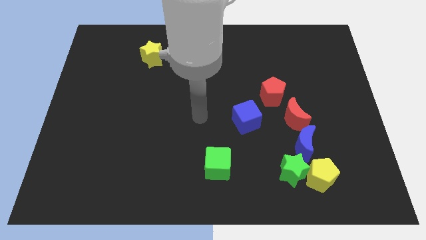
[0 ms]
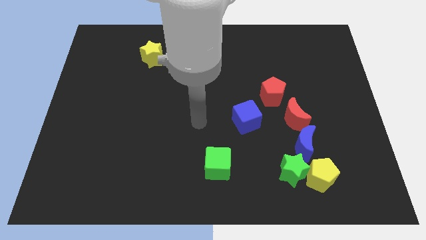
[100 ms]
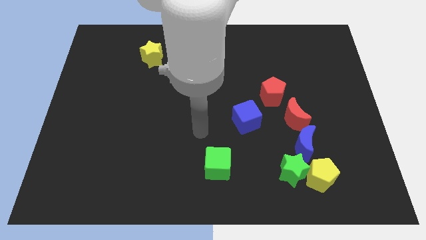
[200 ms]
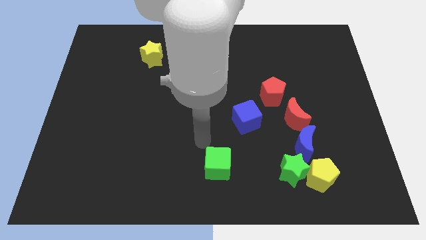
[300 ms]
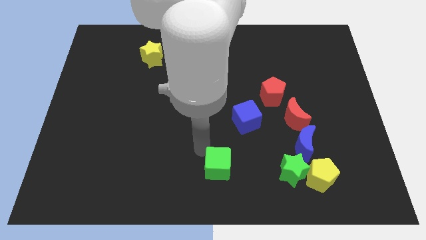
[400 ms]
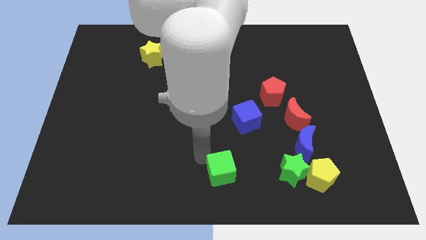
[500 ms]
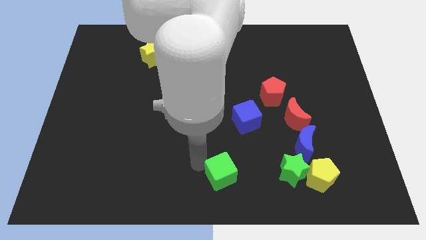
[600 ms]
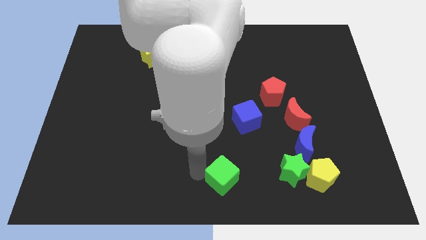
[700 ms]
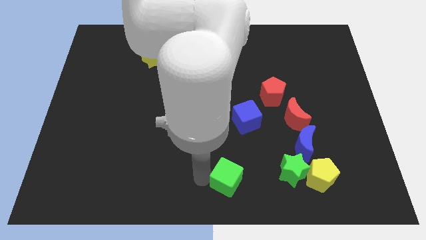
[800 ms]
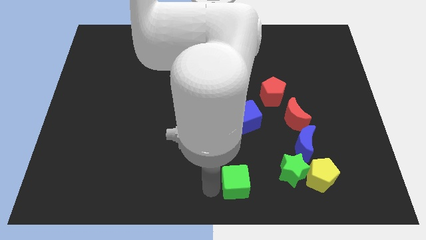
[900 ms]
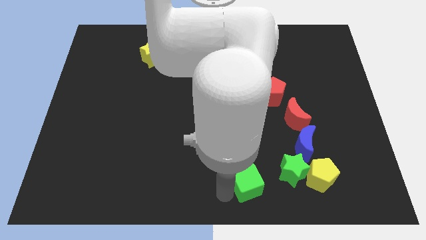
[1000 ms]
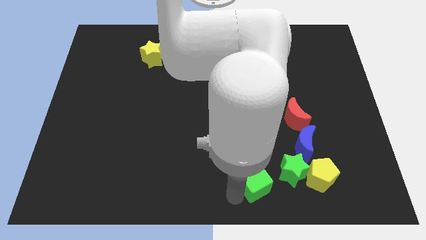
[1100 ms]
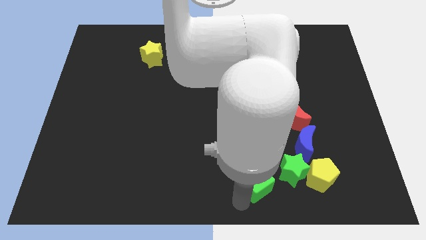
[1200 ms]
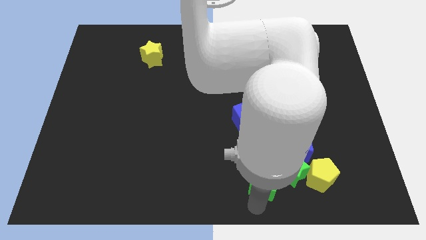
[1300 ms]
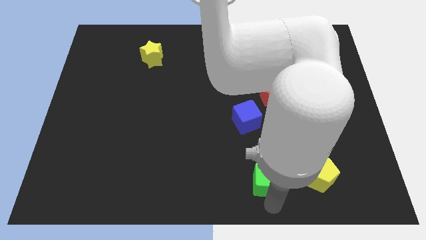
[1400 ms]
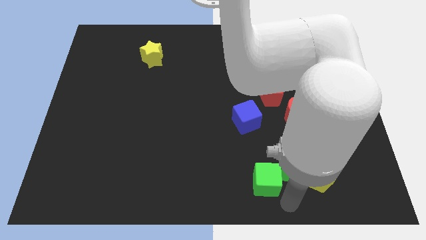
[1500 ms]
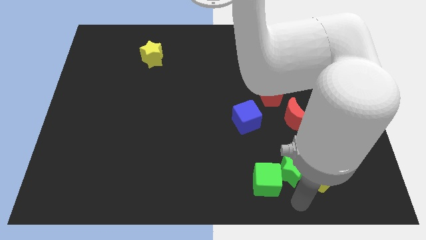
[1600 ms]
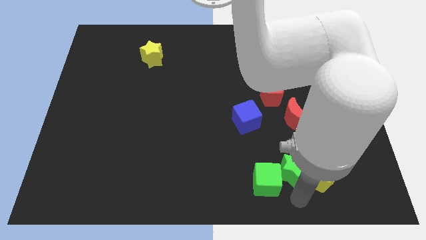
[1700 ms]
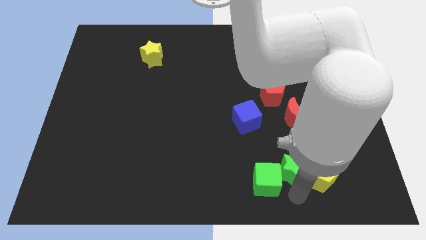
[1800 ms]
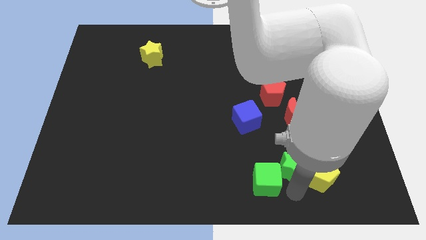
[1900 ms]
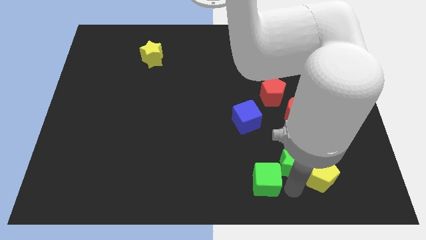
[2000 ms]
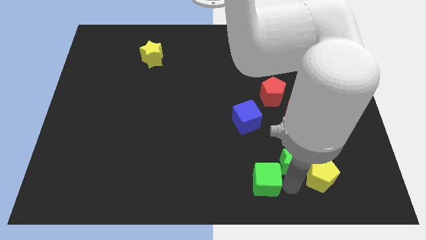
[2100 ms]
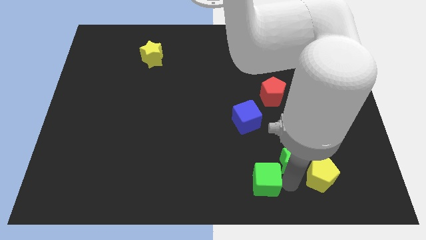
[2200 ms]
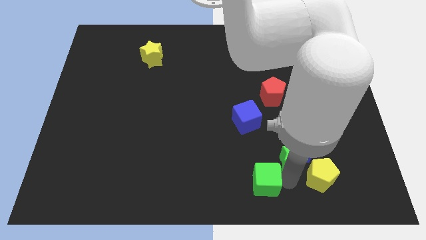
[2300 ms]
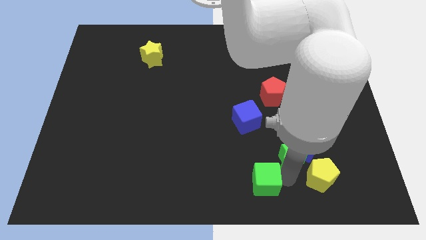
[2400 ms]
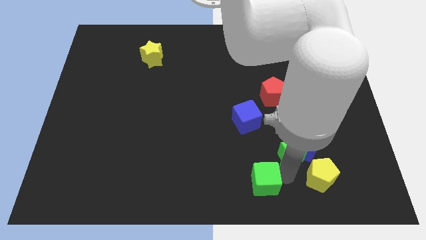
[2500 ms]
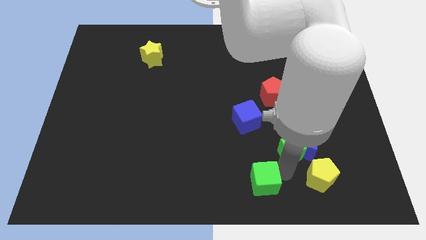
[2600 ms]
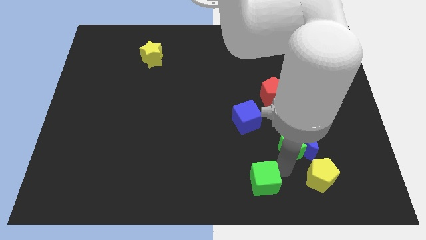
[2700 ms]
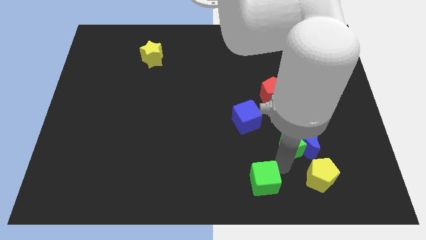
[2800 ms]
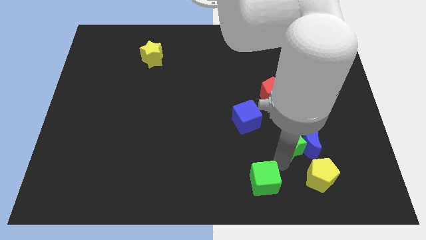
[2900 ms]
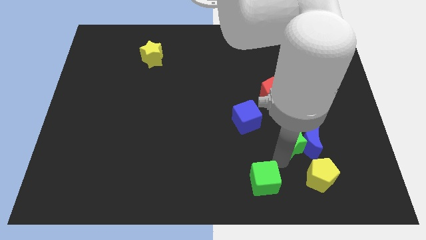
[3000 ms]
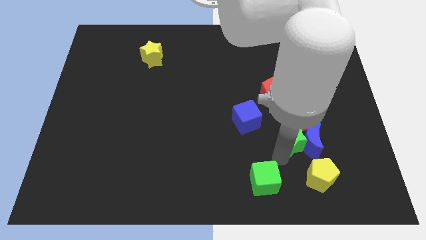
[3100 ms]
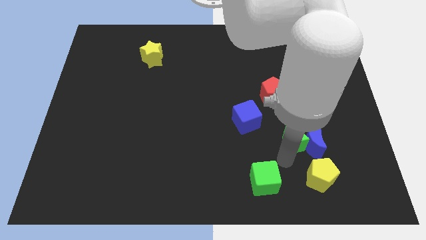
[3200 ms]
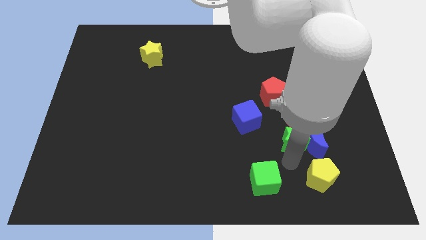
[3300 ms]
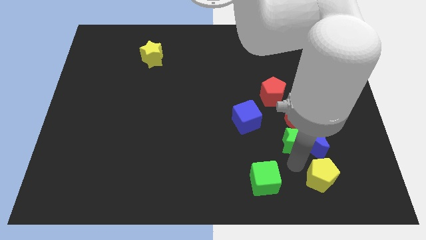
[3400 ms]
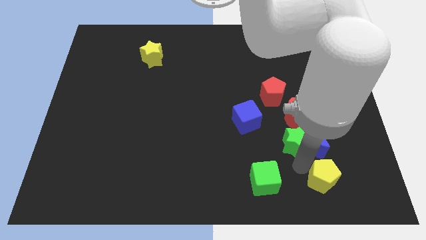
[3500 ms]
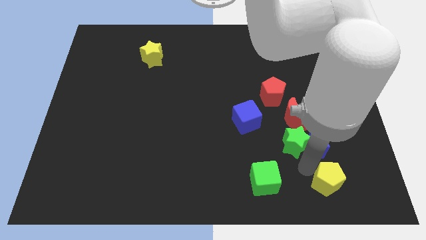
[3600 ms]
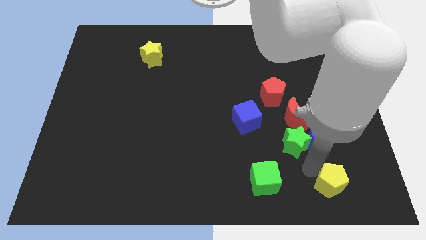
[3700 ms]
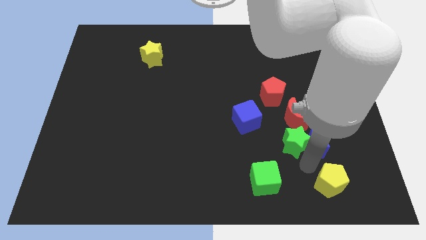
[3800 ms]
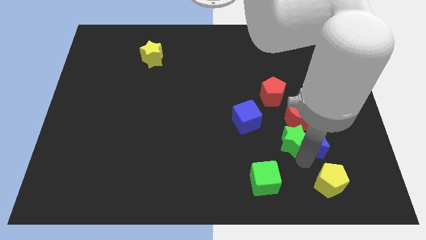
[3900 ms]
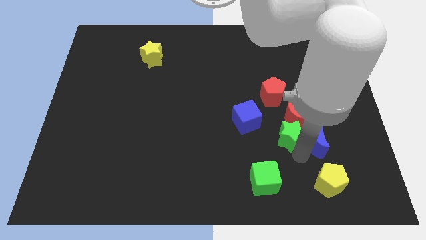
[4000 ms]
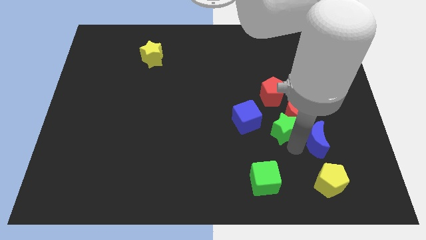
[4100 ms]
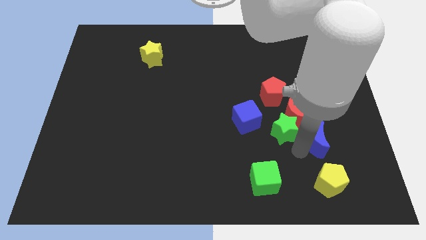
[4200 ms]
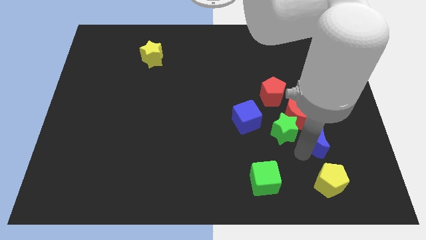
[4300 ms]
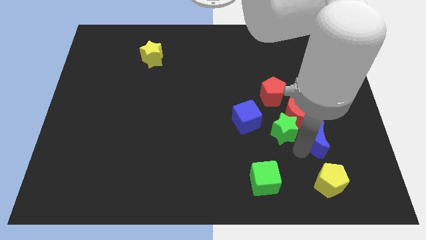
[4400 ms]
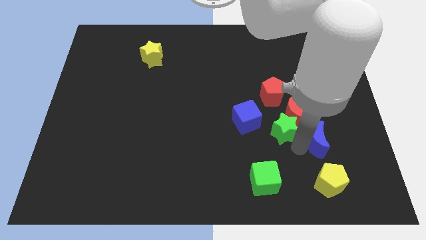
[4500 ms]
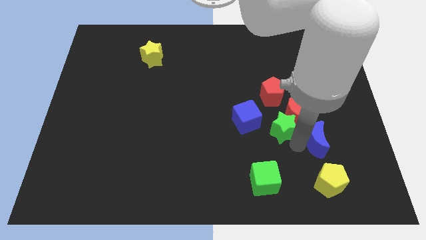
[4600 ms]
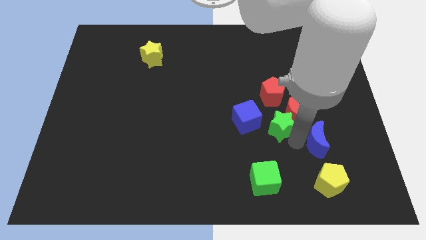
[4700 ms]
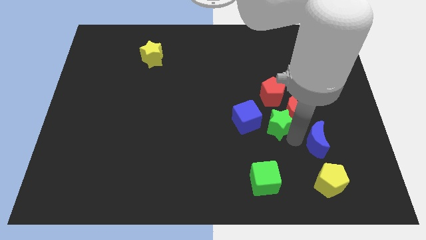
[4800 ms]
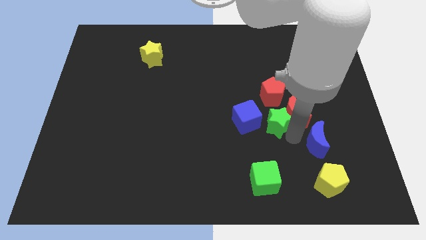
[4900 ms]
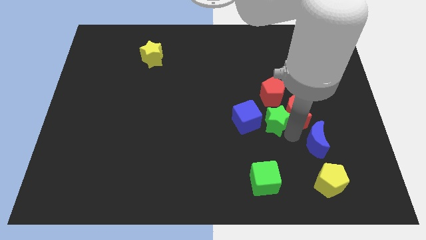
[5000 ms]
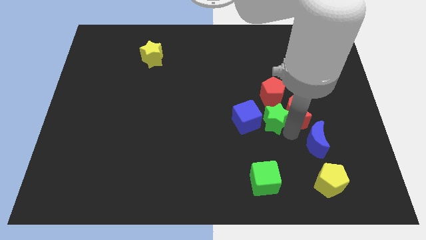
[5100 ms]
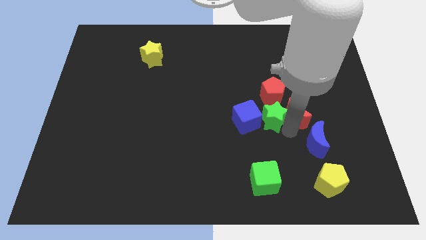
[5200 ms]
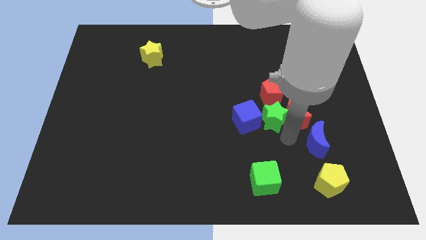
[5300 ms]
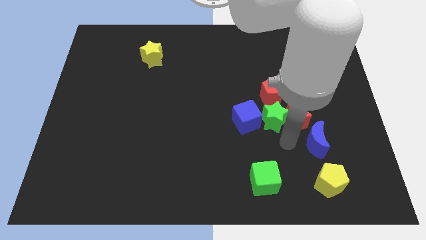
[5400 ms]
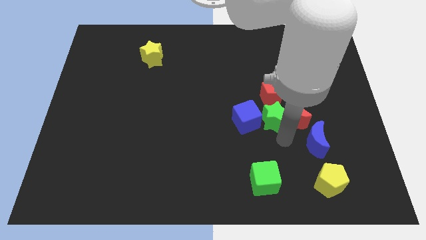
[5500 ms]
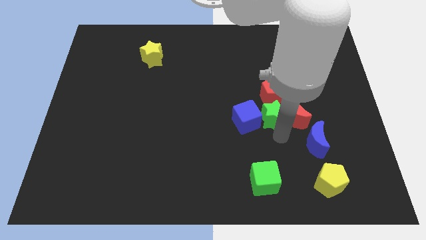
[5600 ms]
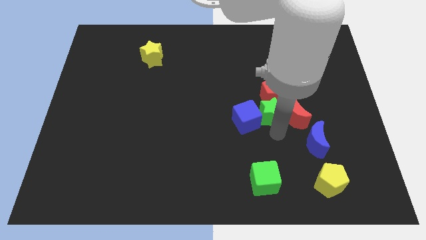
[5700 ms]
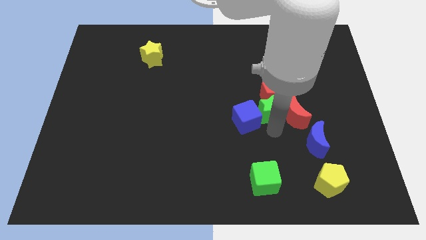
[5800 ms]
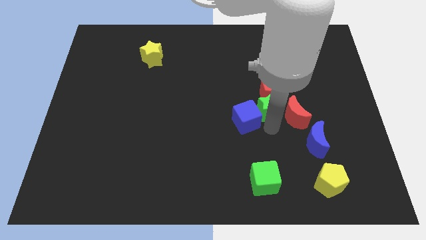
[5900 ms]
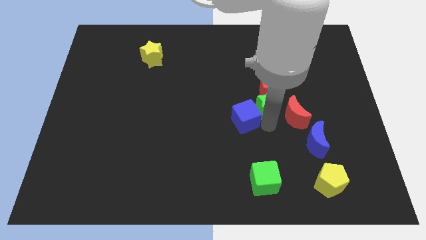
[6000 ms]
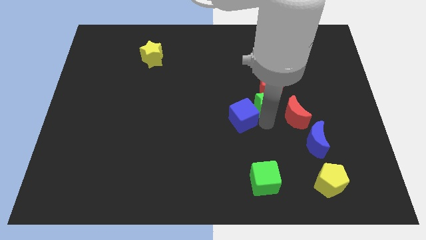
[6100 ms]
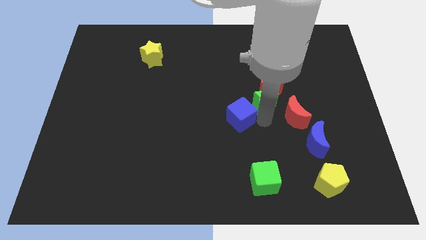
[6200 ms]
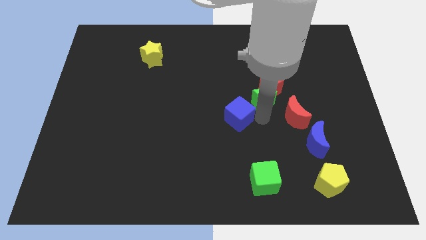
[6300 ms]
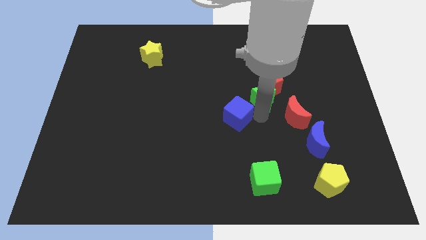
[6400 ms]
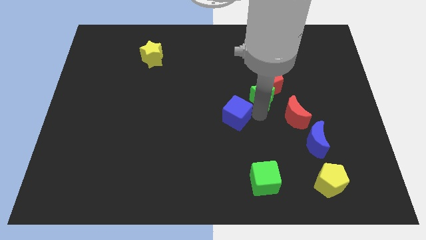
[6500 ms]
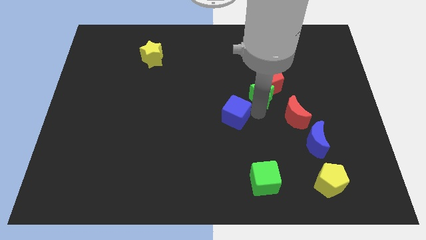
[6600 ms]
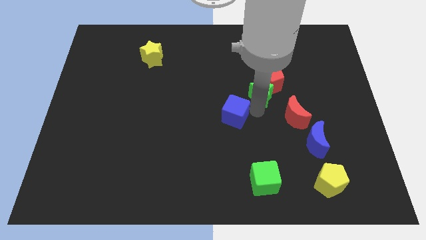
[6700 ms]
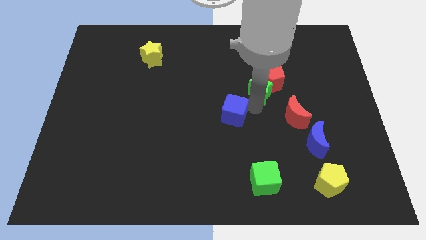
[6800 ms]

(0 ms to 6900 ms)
move the green star up

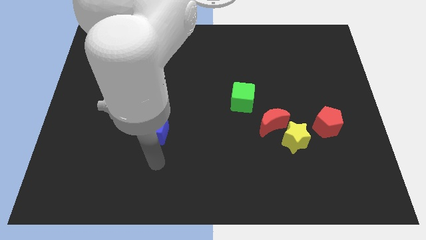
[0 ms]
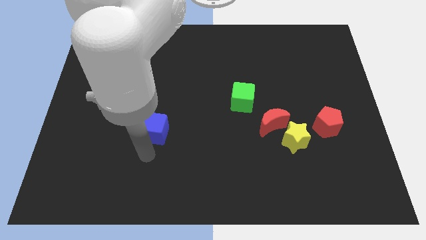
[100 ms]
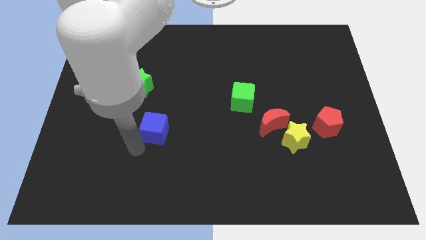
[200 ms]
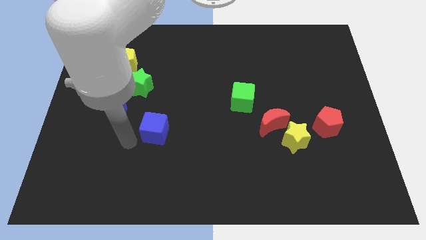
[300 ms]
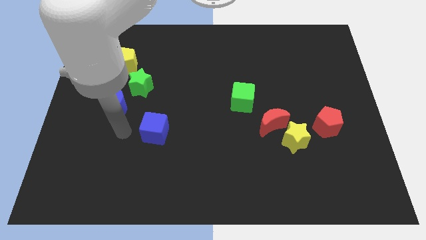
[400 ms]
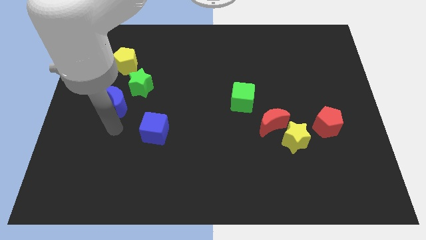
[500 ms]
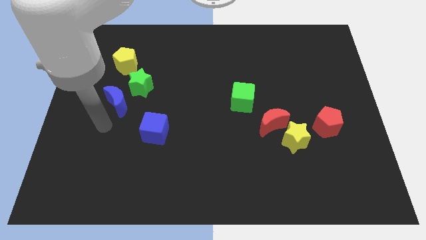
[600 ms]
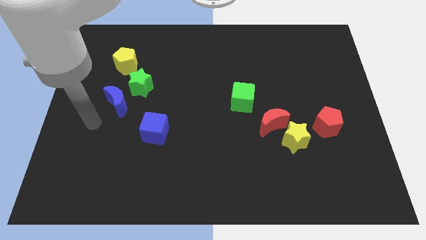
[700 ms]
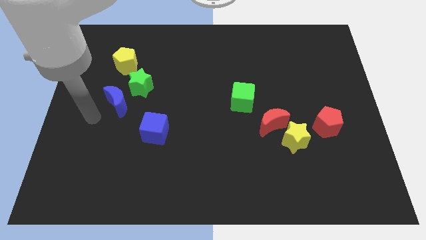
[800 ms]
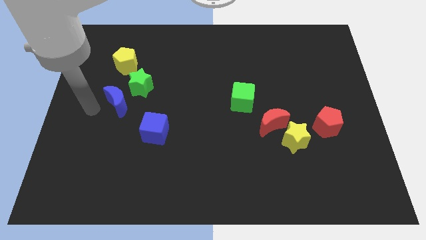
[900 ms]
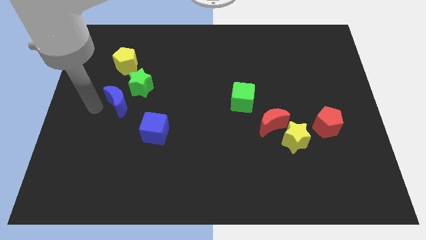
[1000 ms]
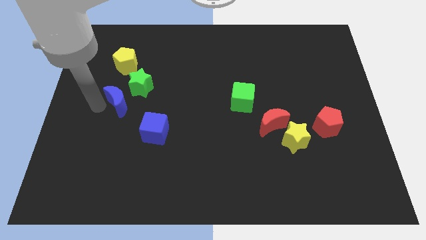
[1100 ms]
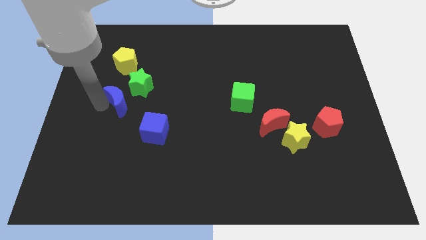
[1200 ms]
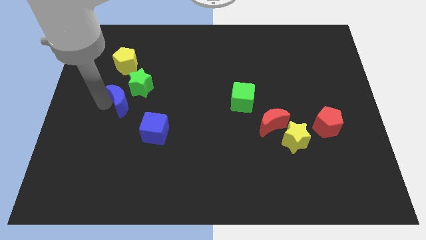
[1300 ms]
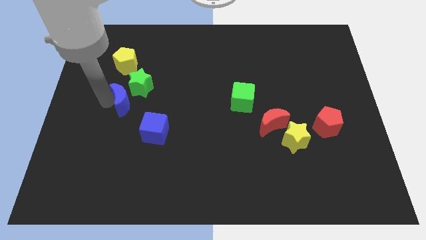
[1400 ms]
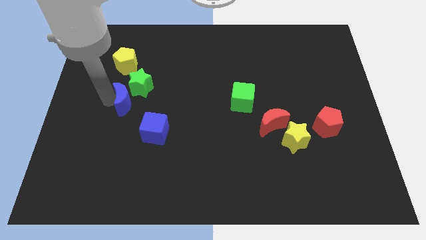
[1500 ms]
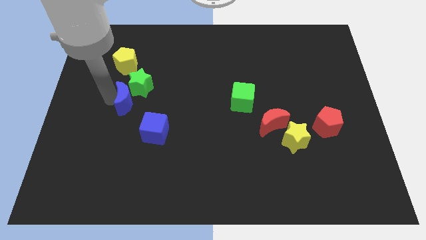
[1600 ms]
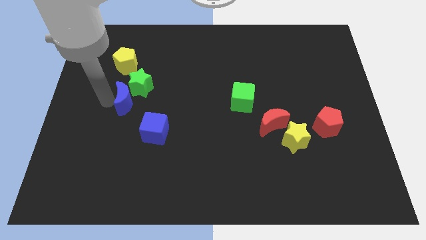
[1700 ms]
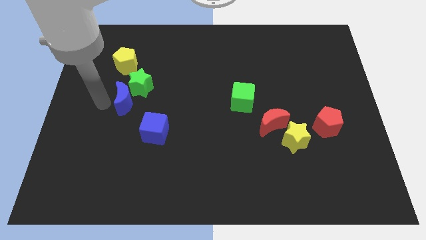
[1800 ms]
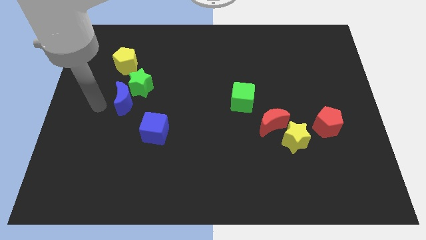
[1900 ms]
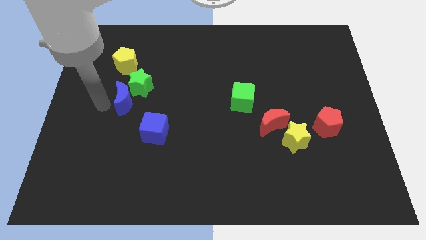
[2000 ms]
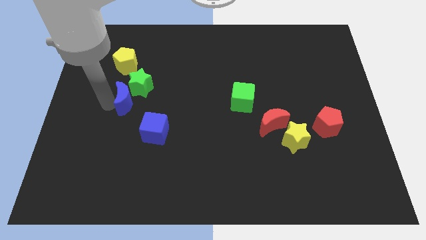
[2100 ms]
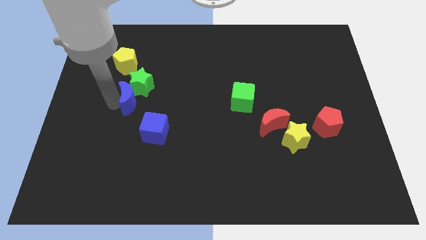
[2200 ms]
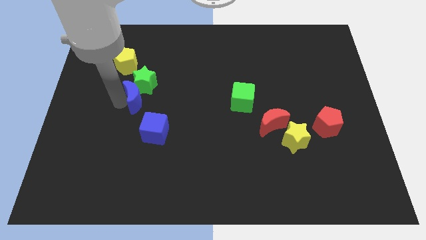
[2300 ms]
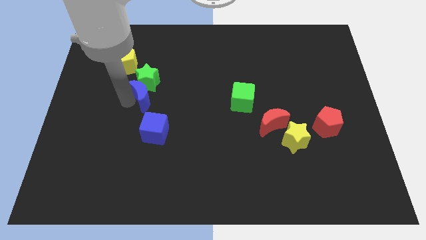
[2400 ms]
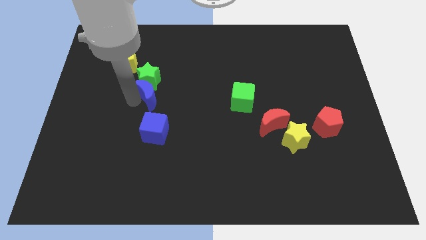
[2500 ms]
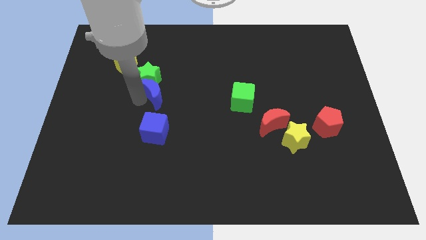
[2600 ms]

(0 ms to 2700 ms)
slightly move the blue moon diagonally up and right
